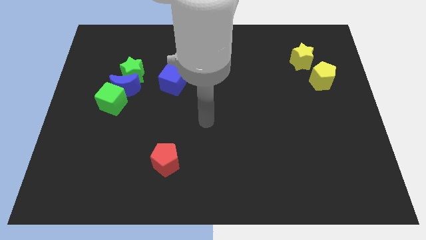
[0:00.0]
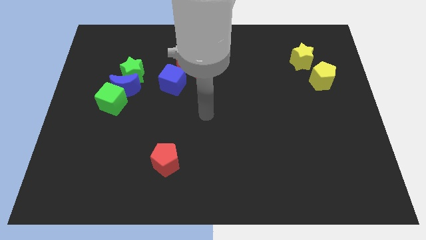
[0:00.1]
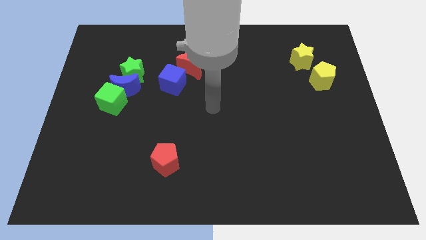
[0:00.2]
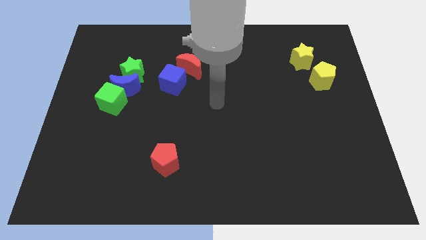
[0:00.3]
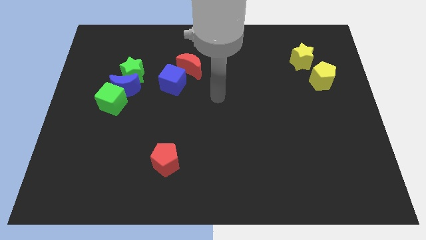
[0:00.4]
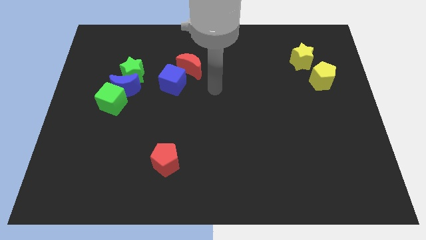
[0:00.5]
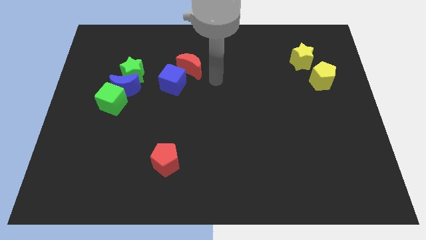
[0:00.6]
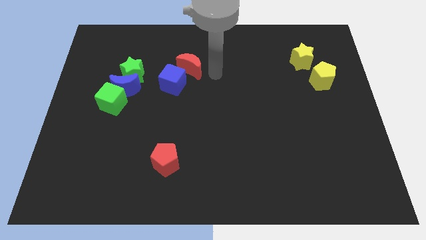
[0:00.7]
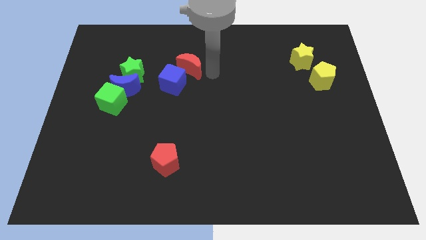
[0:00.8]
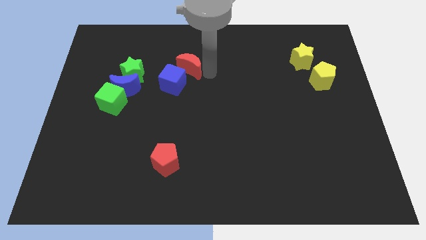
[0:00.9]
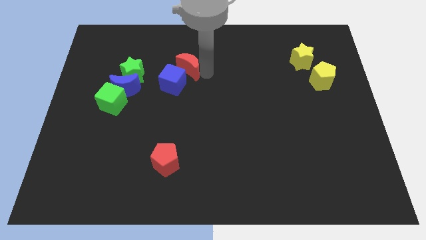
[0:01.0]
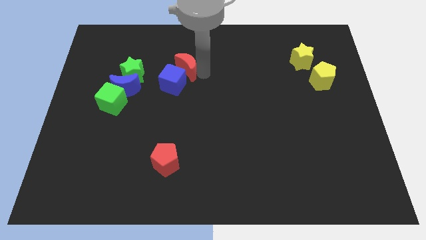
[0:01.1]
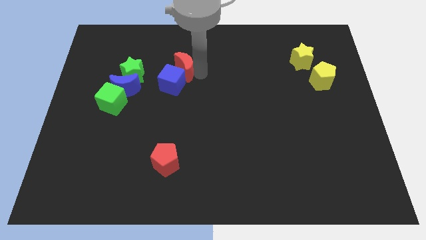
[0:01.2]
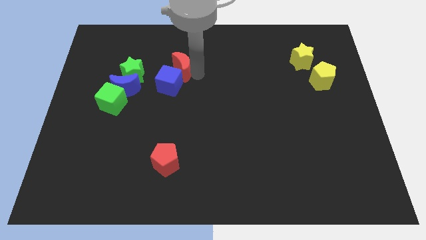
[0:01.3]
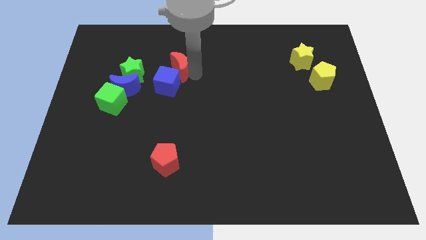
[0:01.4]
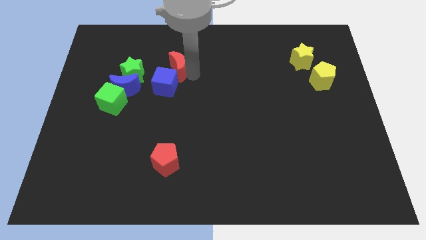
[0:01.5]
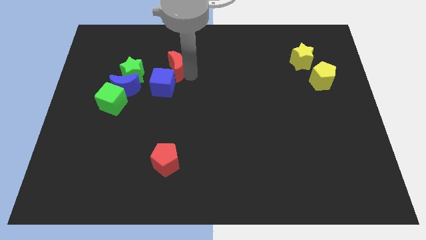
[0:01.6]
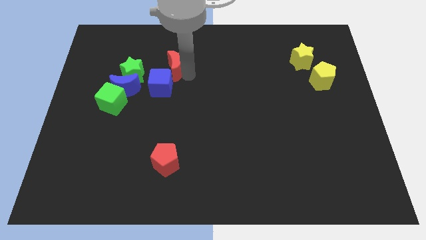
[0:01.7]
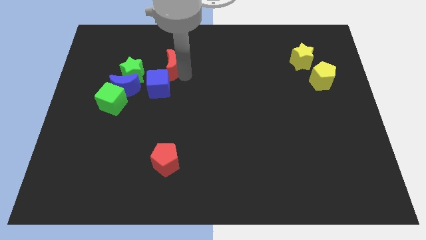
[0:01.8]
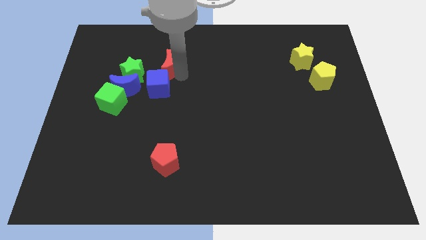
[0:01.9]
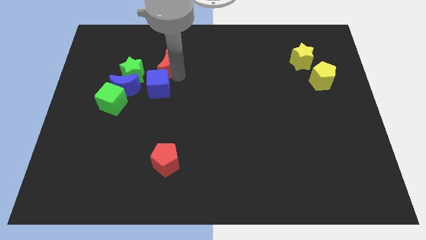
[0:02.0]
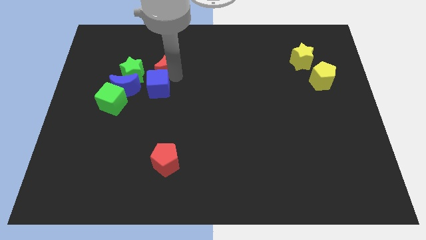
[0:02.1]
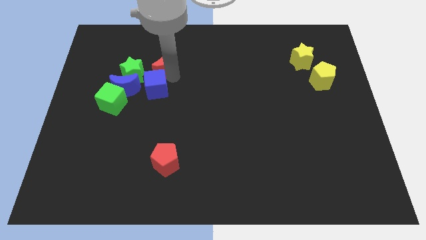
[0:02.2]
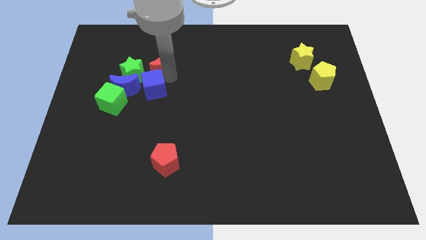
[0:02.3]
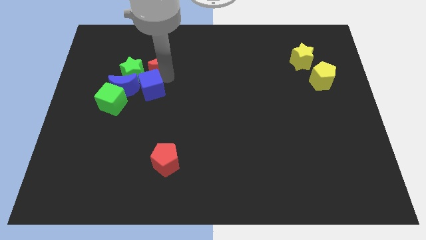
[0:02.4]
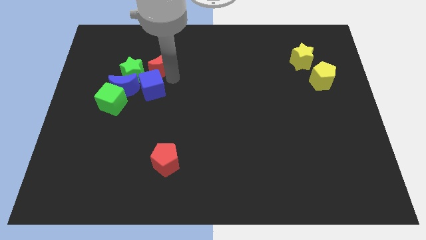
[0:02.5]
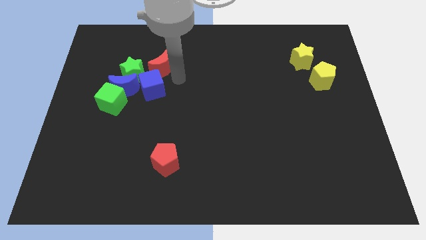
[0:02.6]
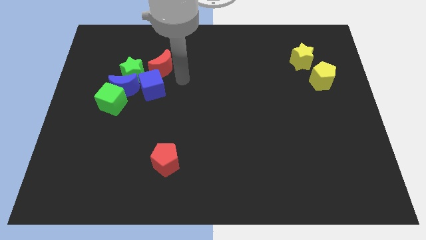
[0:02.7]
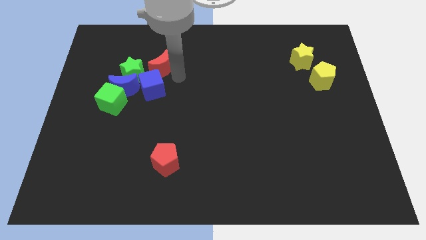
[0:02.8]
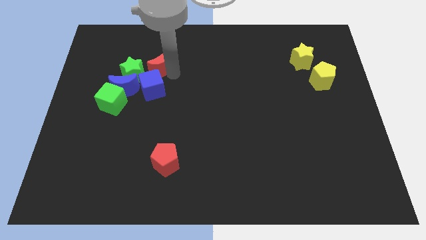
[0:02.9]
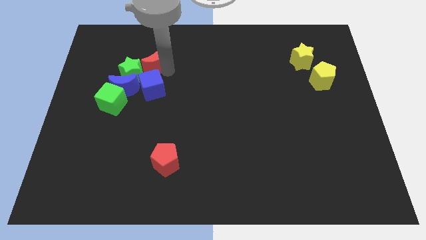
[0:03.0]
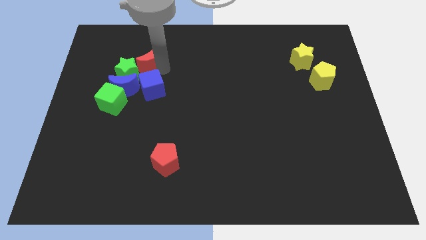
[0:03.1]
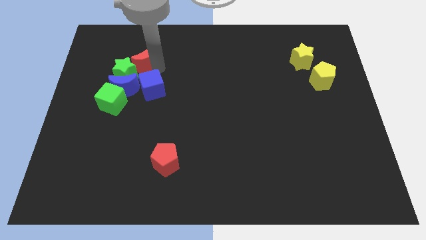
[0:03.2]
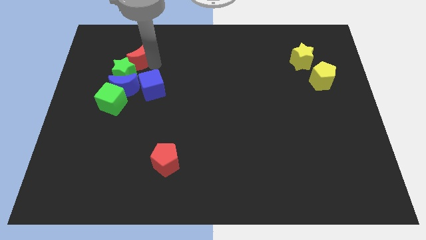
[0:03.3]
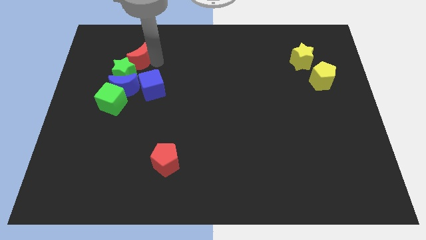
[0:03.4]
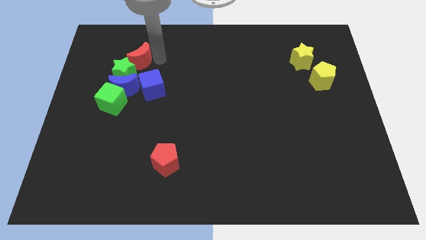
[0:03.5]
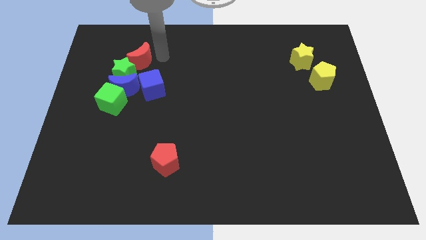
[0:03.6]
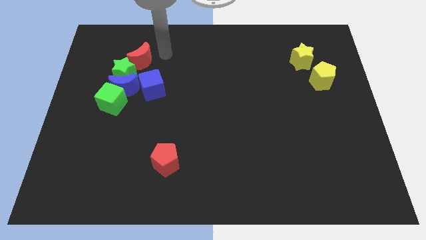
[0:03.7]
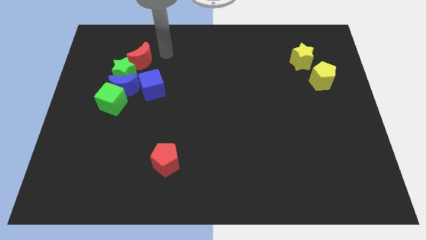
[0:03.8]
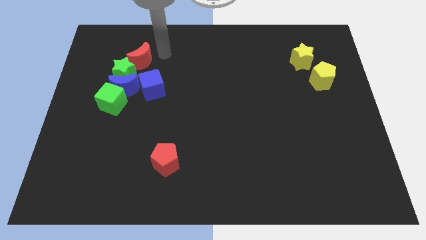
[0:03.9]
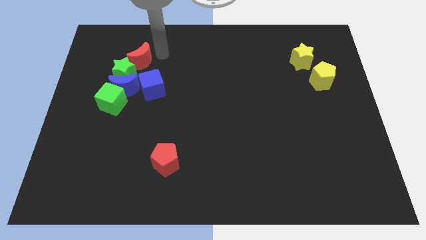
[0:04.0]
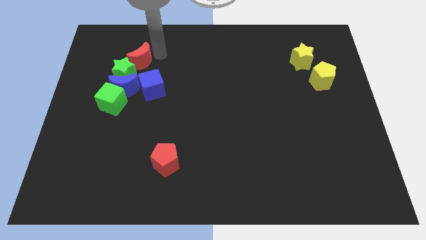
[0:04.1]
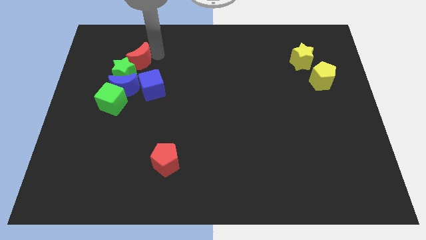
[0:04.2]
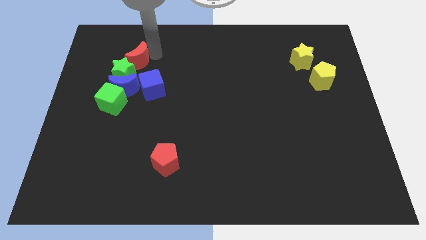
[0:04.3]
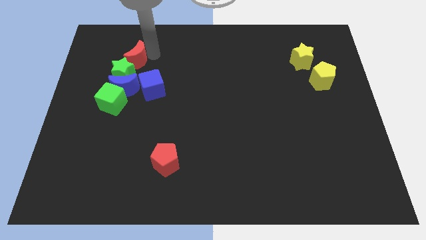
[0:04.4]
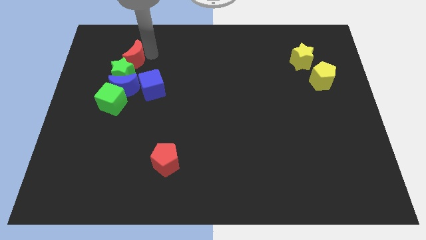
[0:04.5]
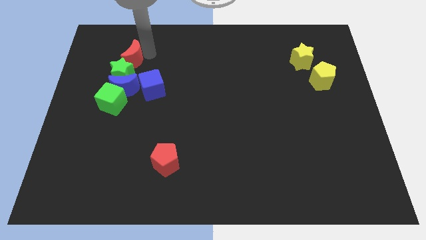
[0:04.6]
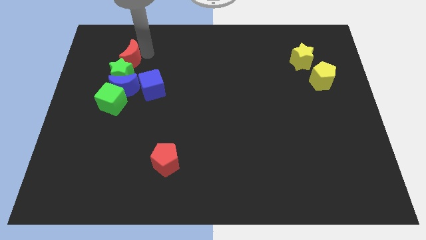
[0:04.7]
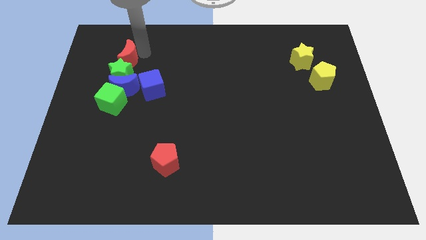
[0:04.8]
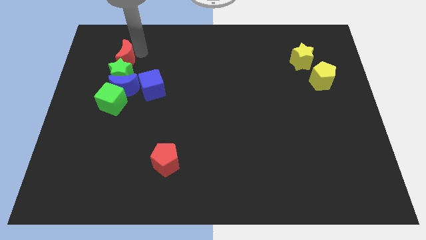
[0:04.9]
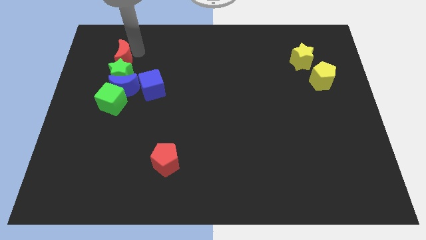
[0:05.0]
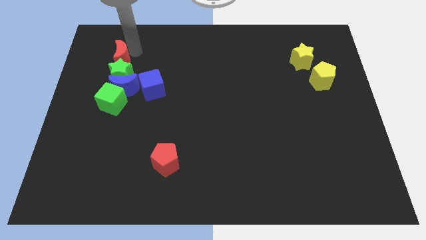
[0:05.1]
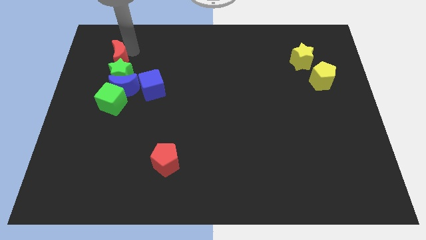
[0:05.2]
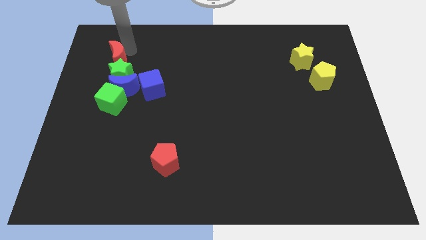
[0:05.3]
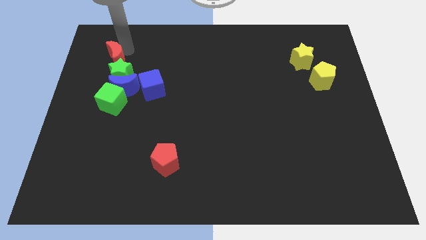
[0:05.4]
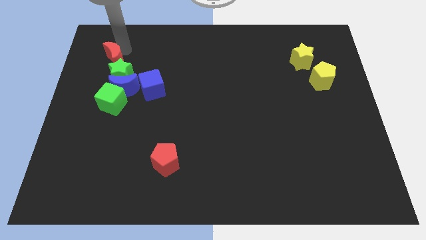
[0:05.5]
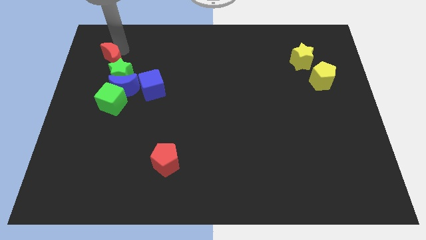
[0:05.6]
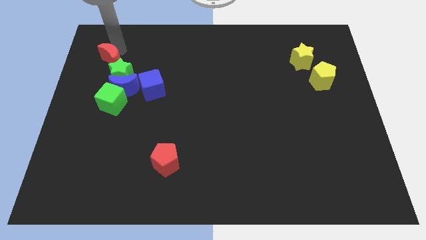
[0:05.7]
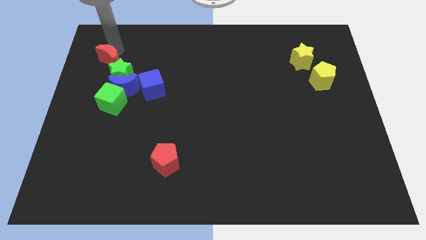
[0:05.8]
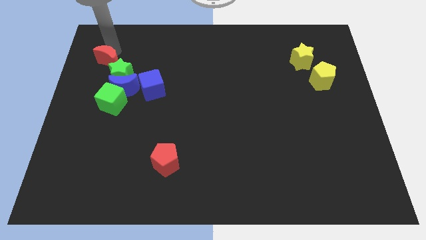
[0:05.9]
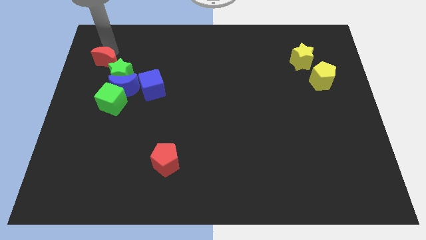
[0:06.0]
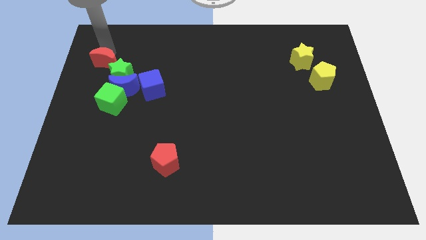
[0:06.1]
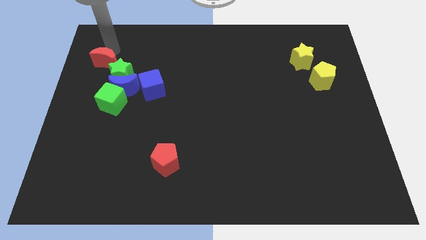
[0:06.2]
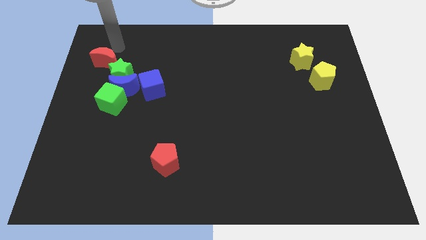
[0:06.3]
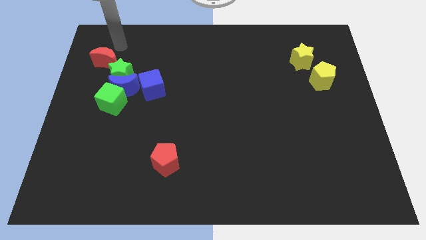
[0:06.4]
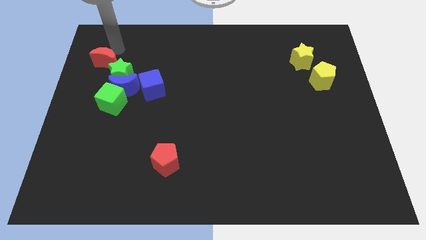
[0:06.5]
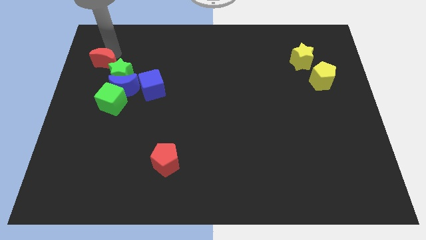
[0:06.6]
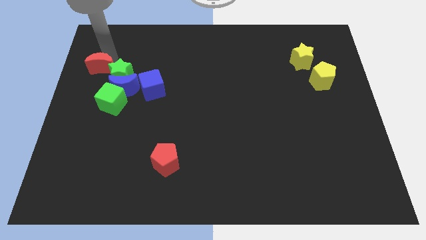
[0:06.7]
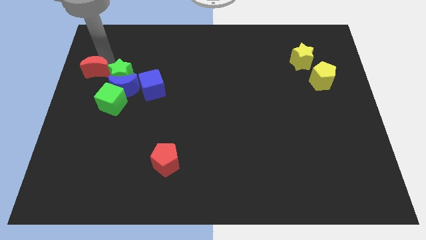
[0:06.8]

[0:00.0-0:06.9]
slide the red moon to the left side of the board
